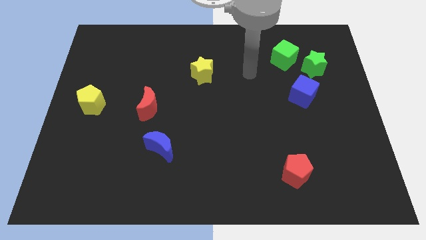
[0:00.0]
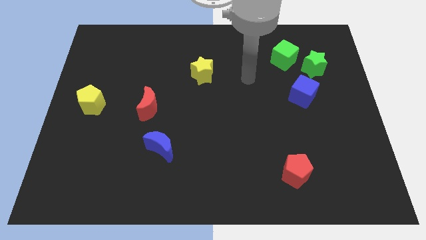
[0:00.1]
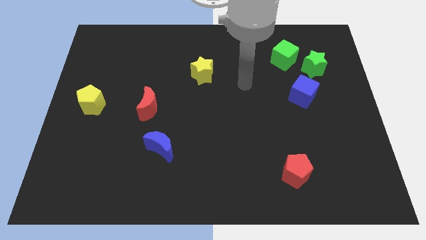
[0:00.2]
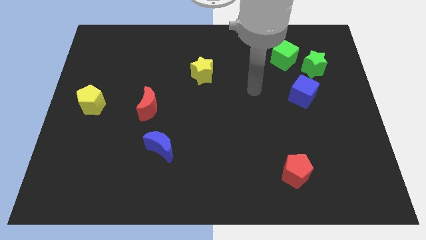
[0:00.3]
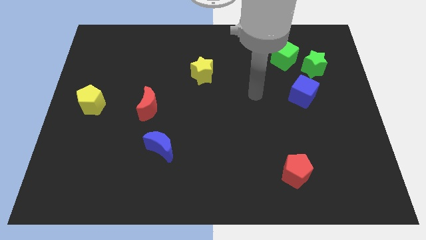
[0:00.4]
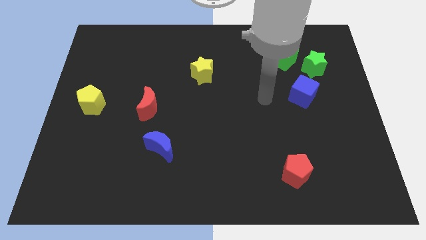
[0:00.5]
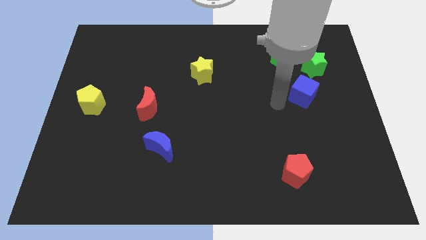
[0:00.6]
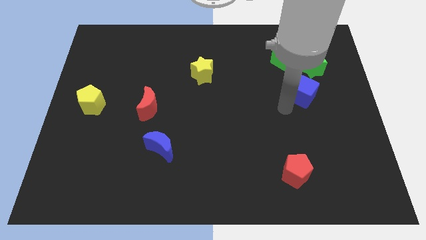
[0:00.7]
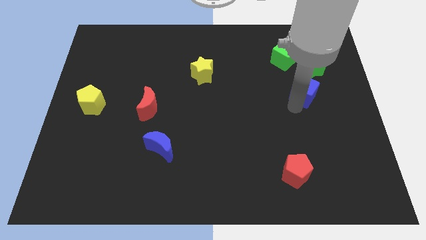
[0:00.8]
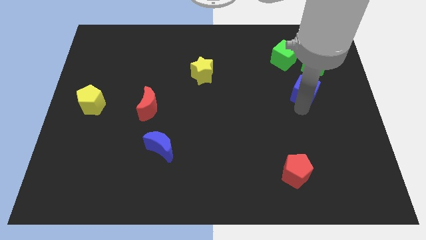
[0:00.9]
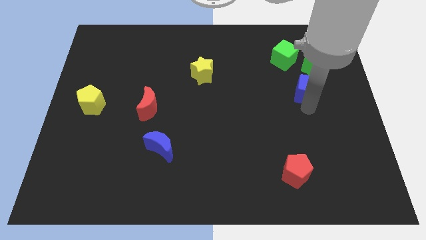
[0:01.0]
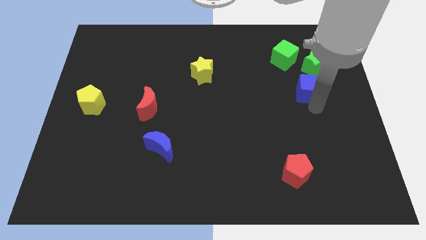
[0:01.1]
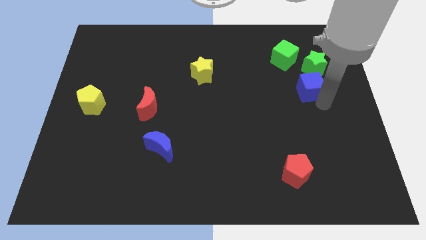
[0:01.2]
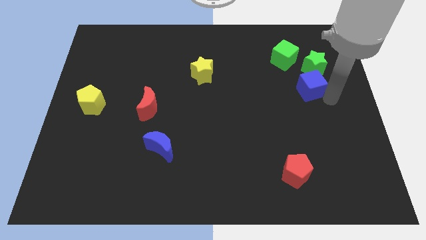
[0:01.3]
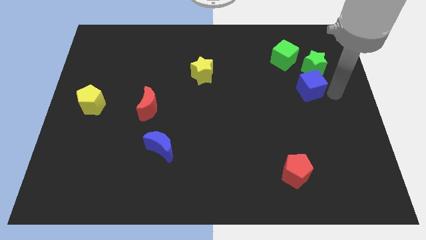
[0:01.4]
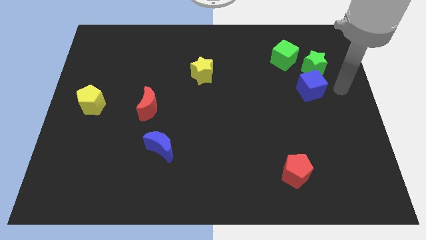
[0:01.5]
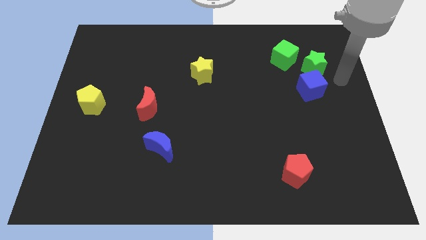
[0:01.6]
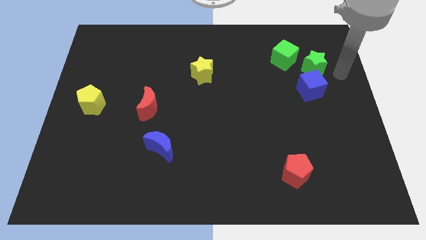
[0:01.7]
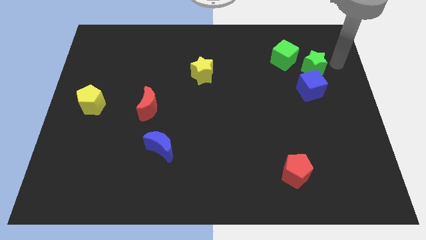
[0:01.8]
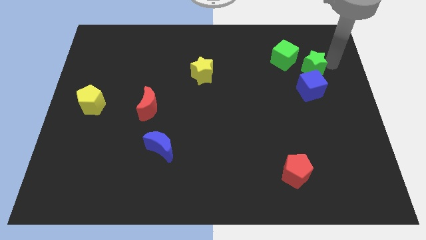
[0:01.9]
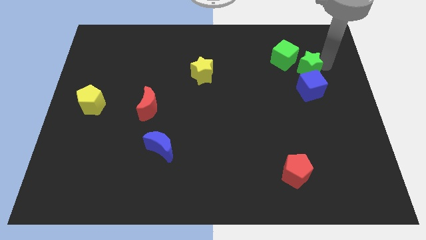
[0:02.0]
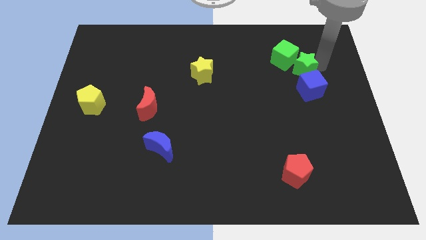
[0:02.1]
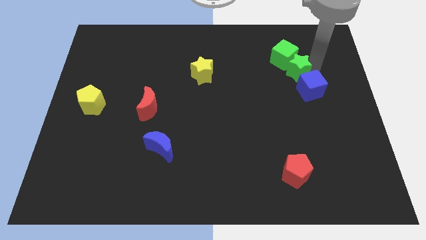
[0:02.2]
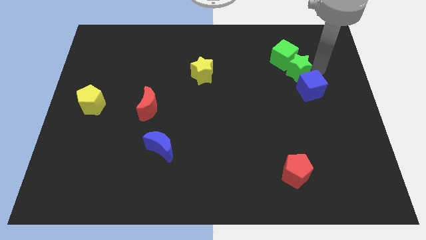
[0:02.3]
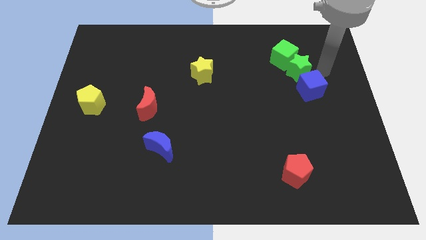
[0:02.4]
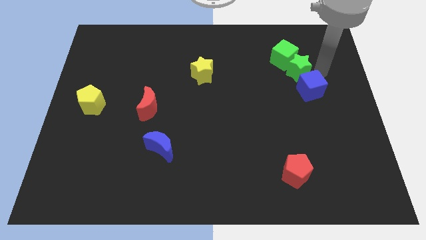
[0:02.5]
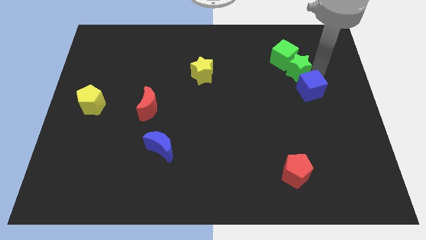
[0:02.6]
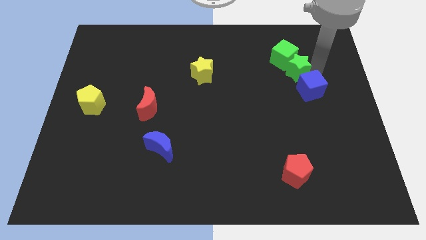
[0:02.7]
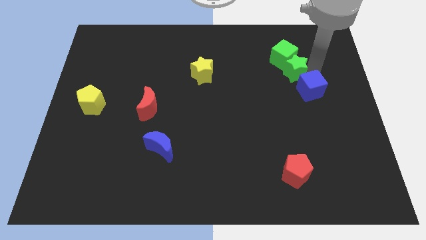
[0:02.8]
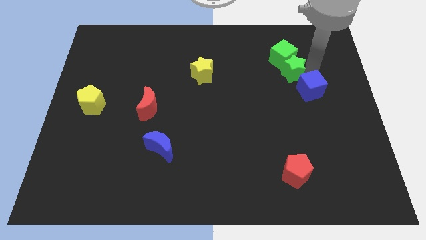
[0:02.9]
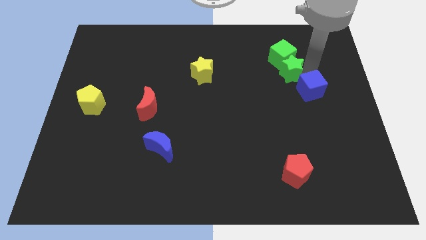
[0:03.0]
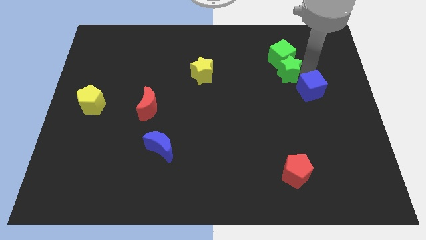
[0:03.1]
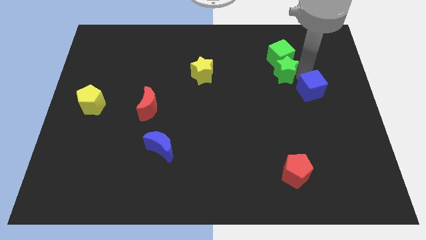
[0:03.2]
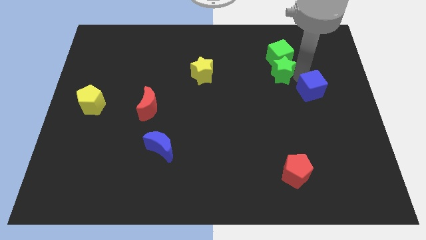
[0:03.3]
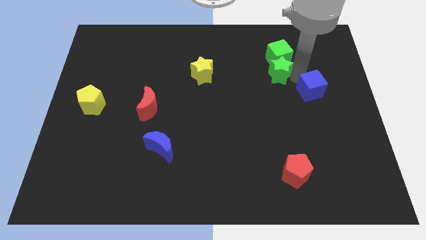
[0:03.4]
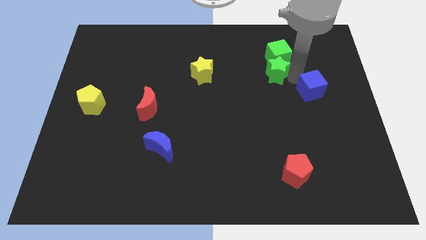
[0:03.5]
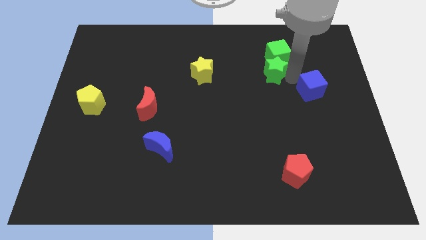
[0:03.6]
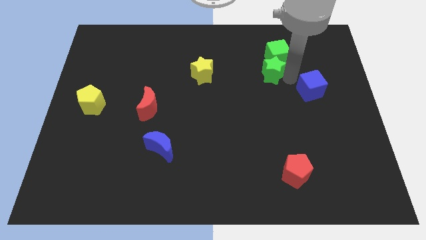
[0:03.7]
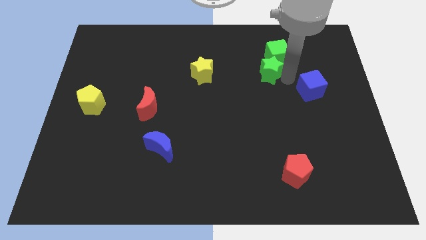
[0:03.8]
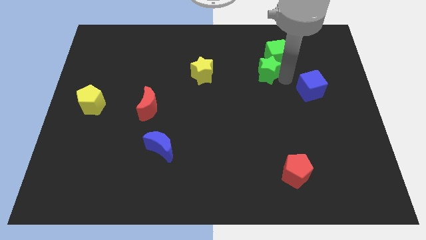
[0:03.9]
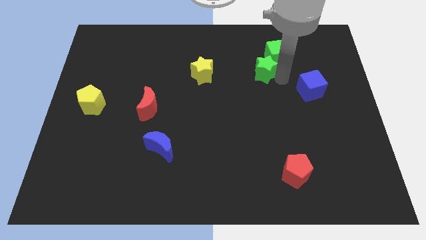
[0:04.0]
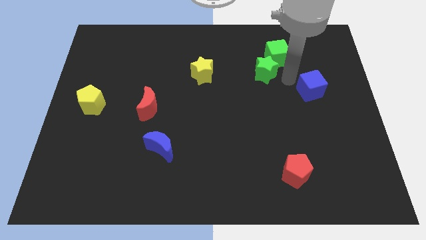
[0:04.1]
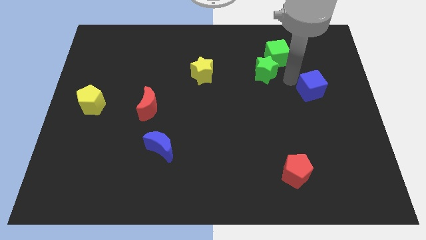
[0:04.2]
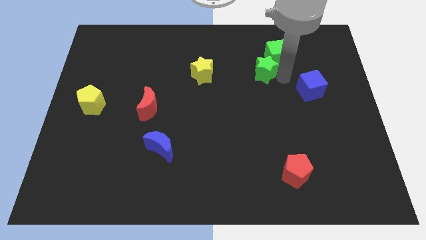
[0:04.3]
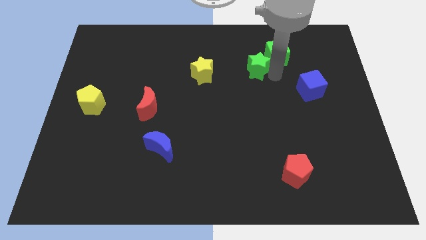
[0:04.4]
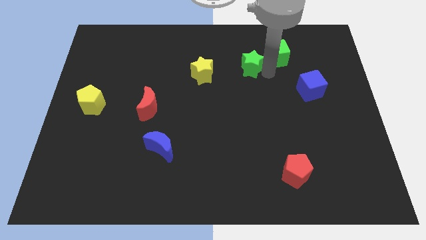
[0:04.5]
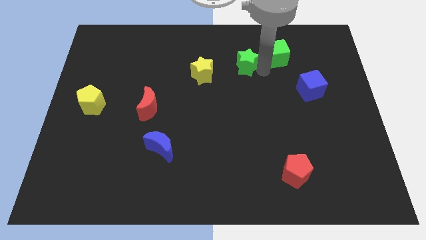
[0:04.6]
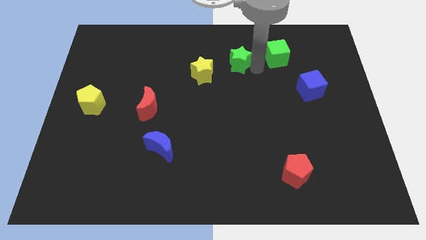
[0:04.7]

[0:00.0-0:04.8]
move the green star to the top right of the yellow star

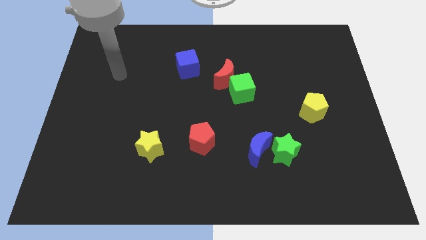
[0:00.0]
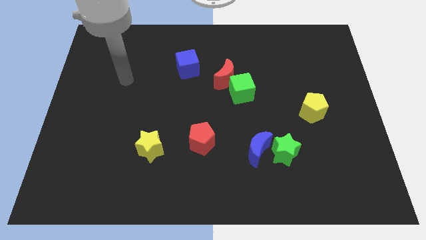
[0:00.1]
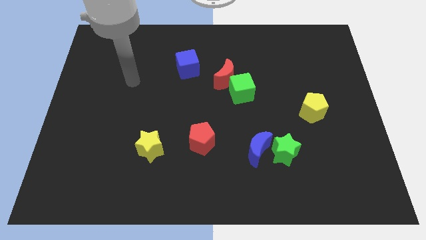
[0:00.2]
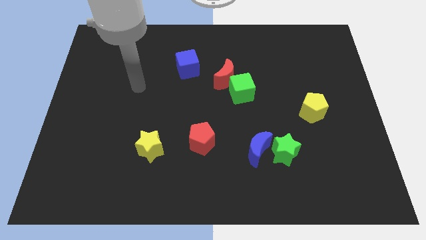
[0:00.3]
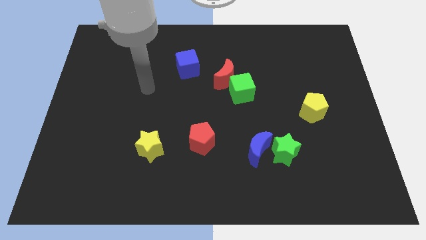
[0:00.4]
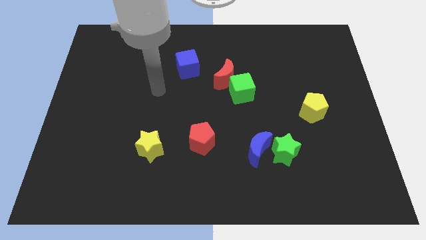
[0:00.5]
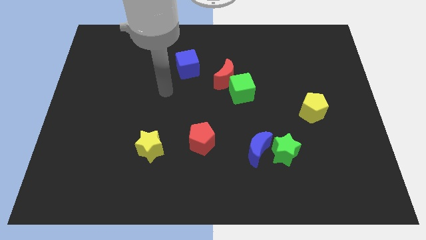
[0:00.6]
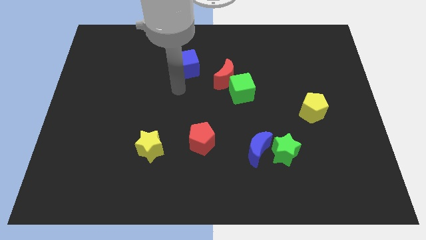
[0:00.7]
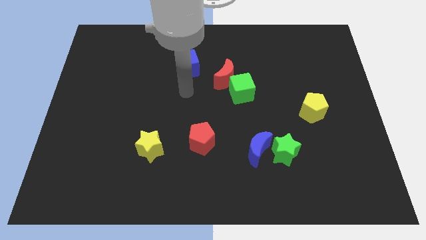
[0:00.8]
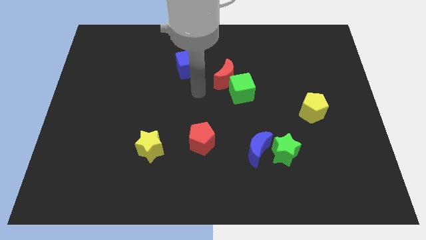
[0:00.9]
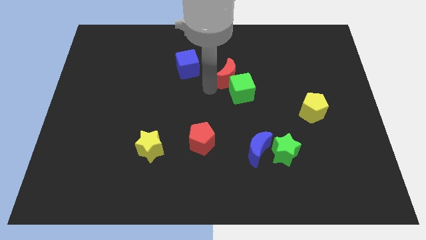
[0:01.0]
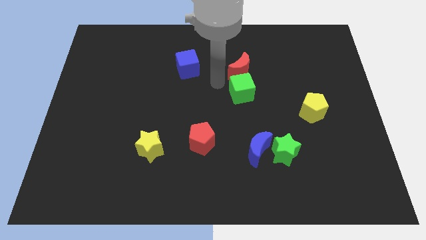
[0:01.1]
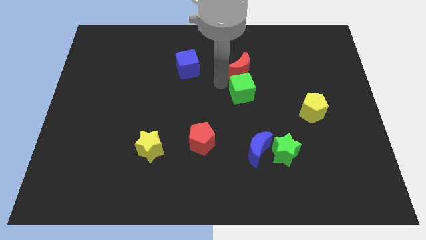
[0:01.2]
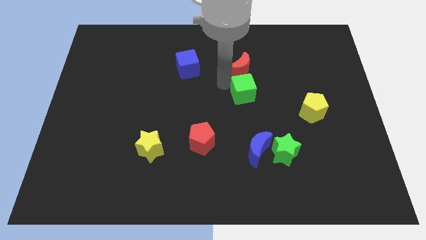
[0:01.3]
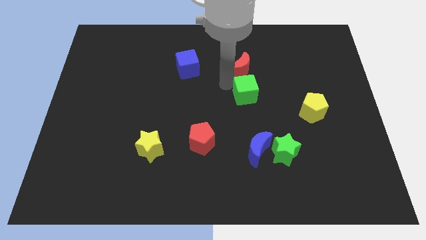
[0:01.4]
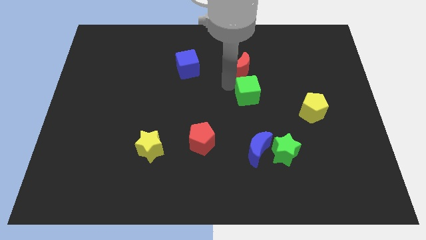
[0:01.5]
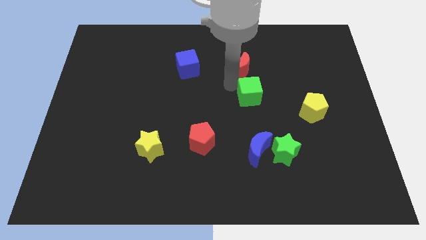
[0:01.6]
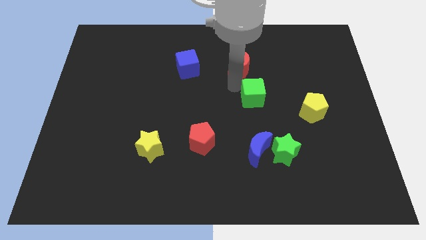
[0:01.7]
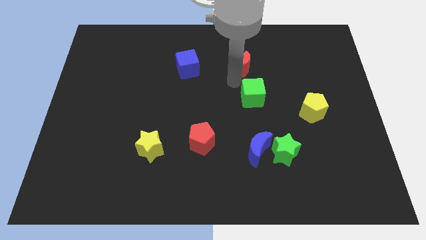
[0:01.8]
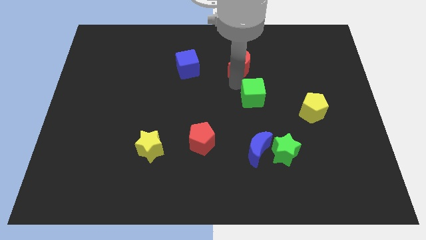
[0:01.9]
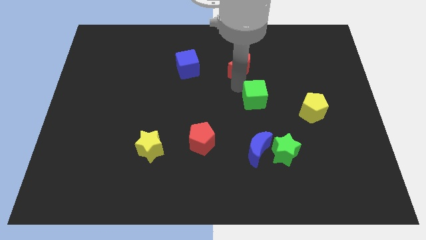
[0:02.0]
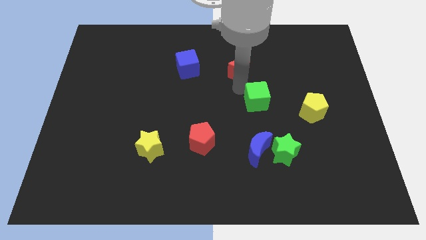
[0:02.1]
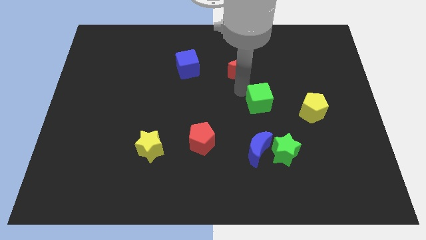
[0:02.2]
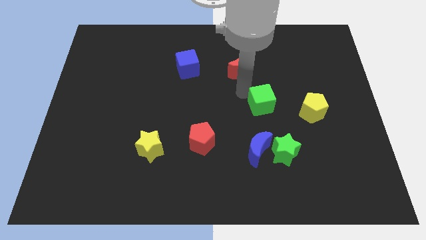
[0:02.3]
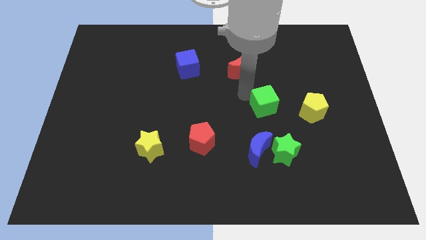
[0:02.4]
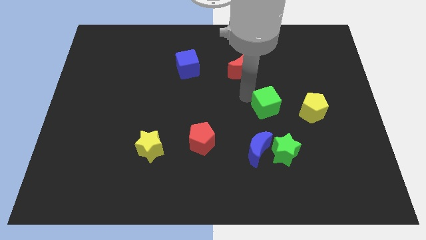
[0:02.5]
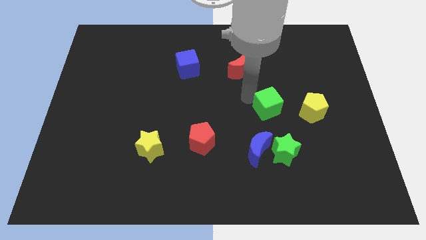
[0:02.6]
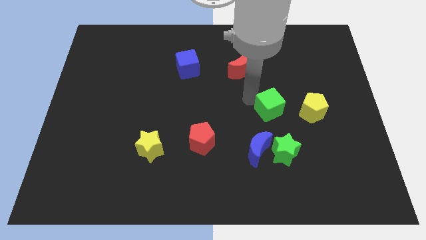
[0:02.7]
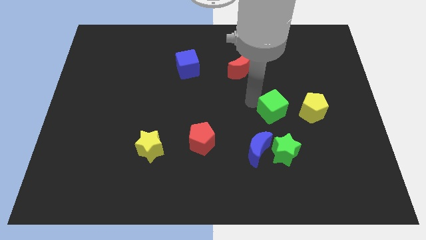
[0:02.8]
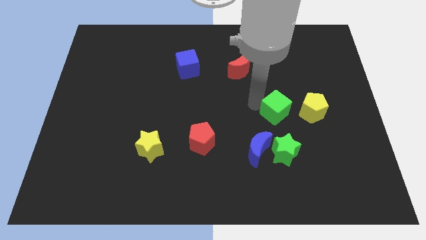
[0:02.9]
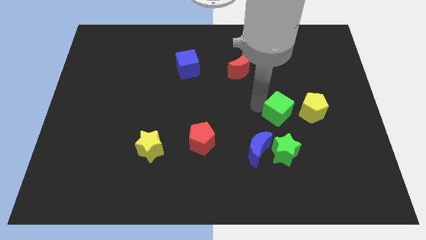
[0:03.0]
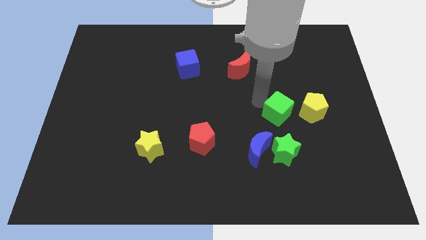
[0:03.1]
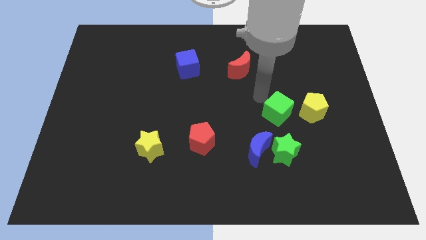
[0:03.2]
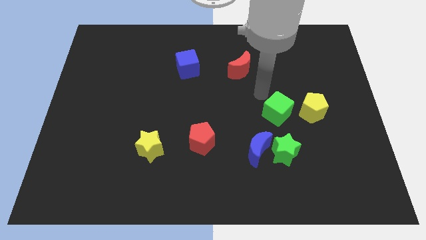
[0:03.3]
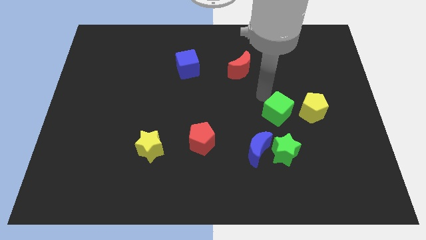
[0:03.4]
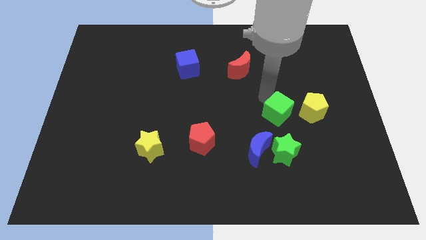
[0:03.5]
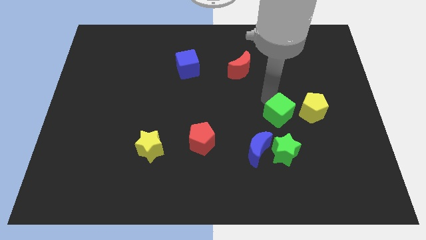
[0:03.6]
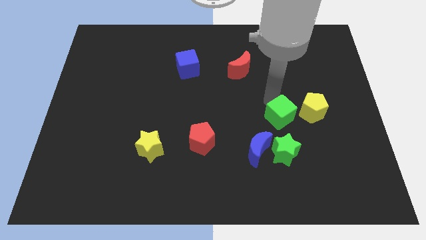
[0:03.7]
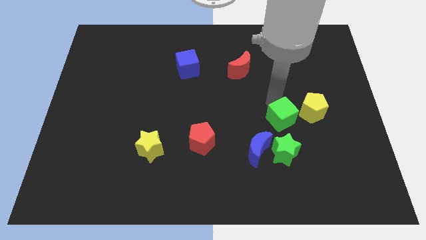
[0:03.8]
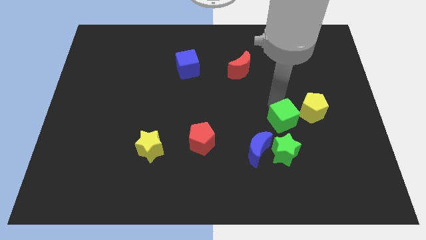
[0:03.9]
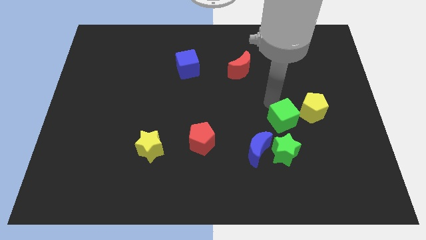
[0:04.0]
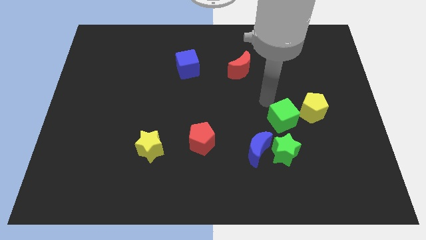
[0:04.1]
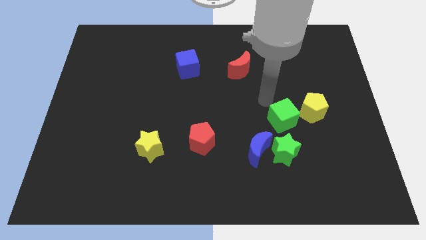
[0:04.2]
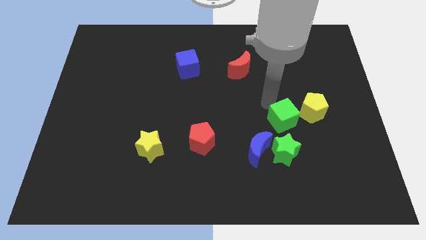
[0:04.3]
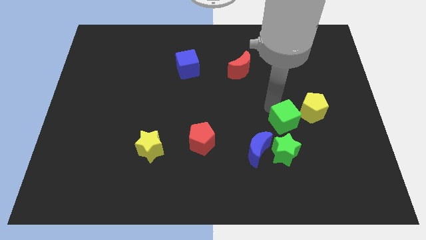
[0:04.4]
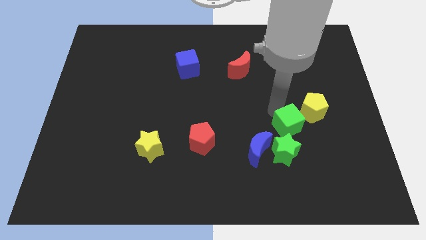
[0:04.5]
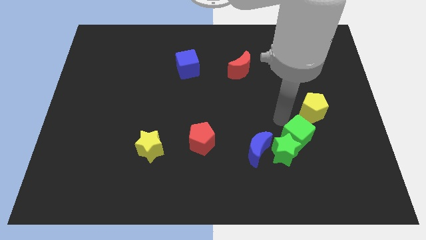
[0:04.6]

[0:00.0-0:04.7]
move the green cube to the right of the green star
